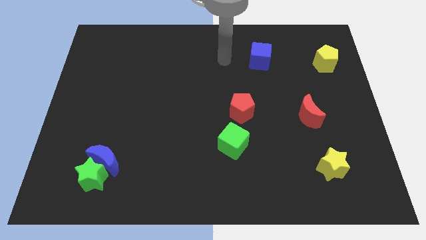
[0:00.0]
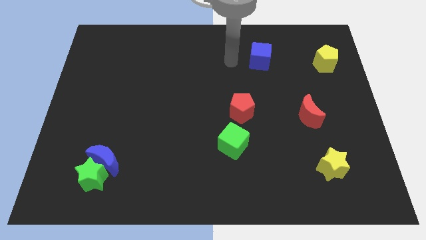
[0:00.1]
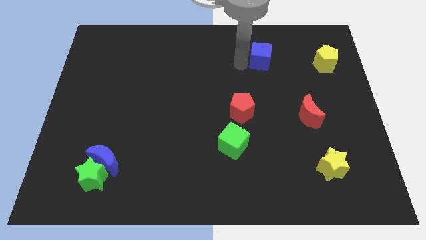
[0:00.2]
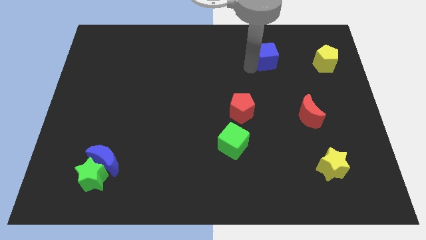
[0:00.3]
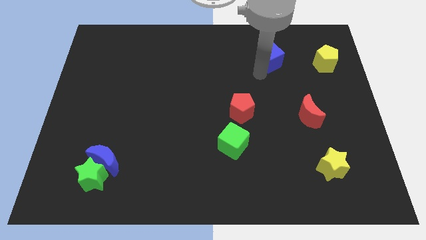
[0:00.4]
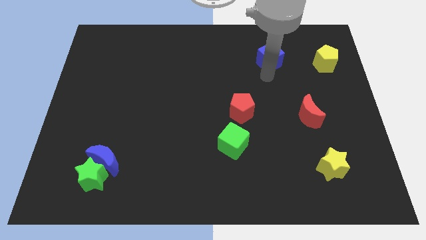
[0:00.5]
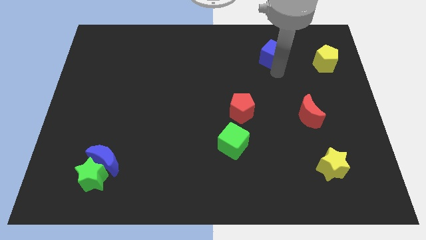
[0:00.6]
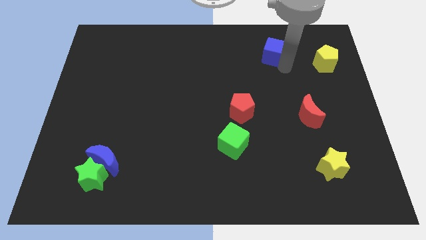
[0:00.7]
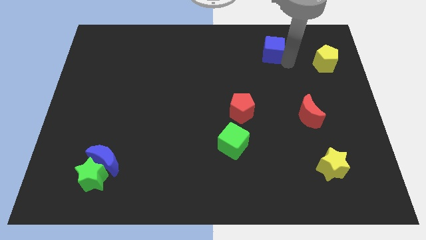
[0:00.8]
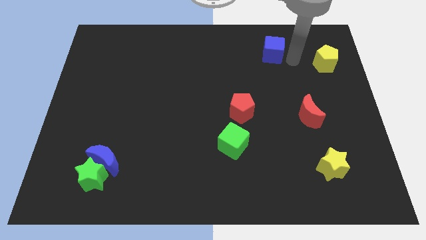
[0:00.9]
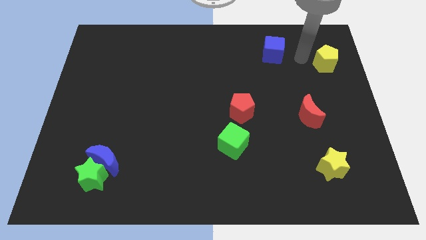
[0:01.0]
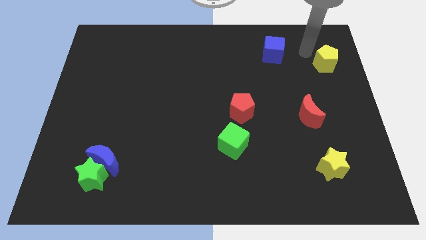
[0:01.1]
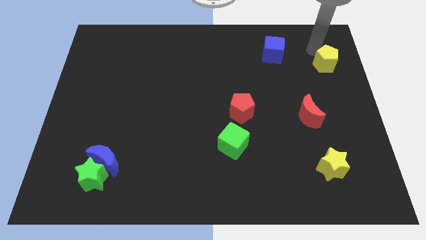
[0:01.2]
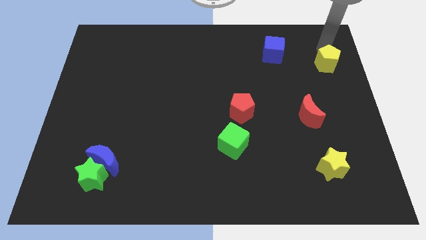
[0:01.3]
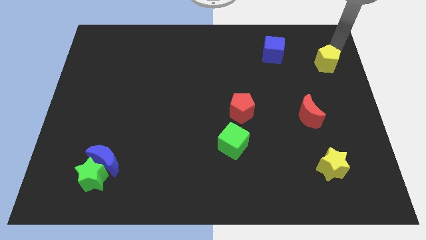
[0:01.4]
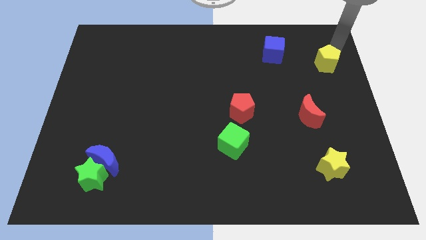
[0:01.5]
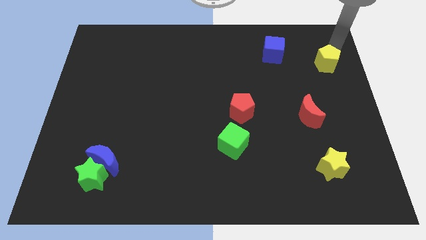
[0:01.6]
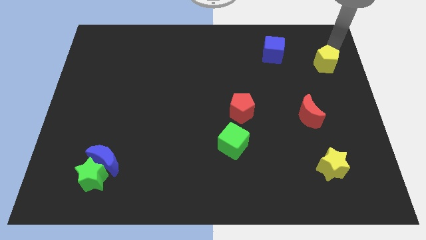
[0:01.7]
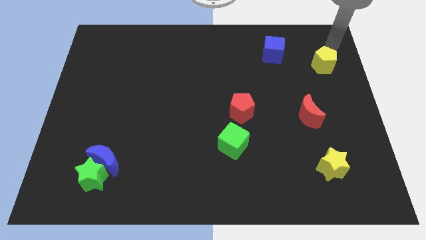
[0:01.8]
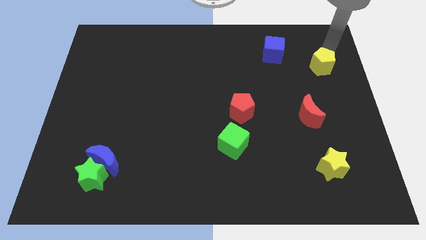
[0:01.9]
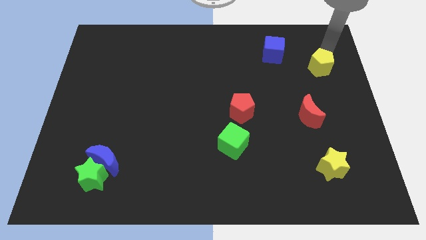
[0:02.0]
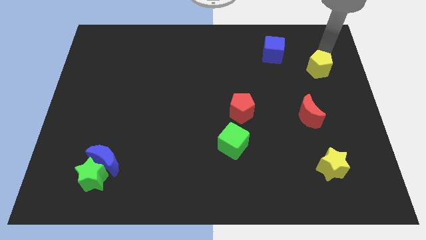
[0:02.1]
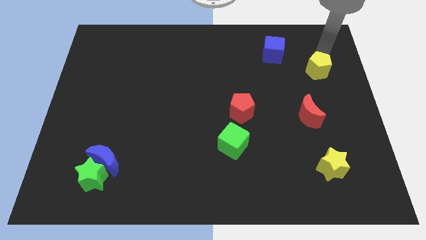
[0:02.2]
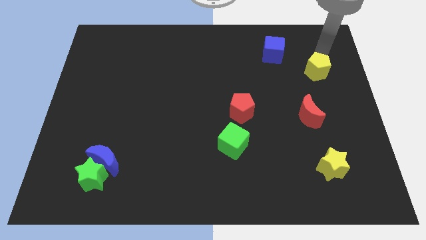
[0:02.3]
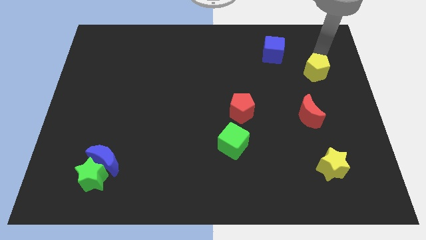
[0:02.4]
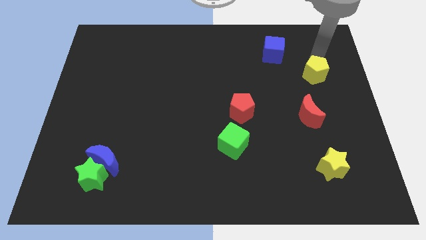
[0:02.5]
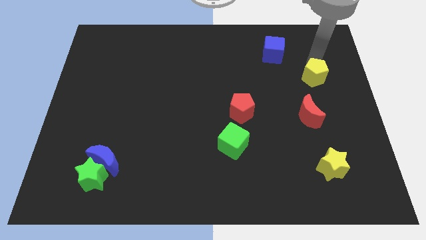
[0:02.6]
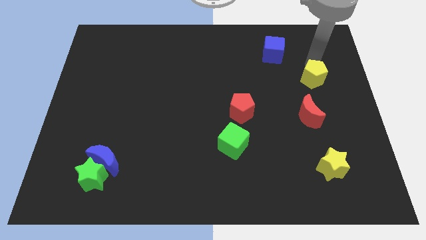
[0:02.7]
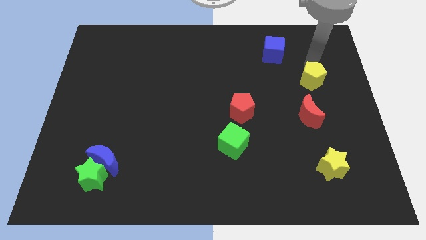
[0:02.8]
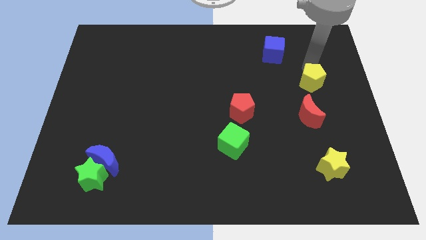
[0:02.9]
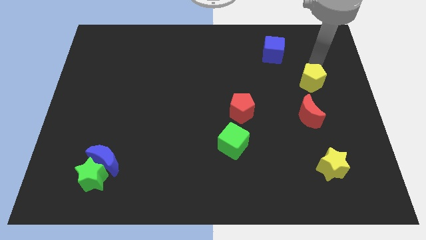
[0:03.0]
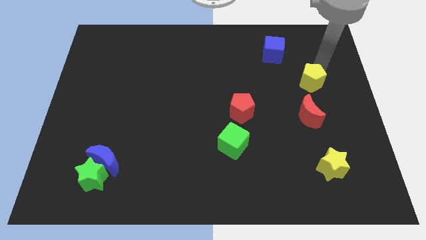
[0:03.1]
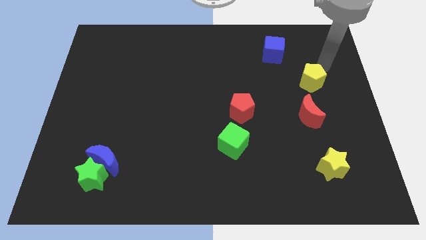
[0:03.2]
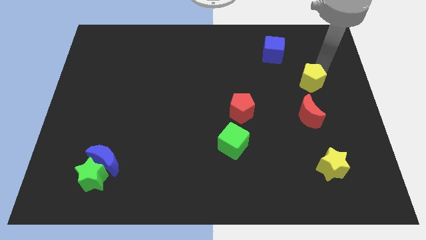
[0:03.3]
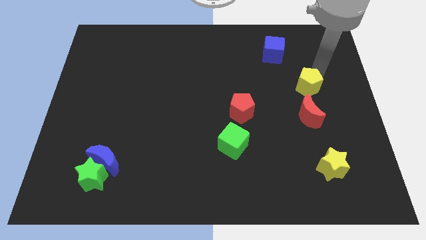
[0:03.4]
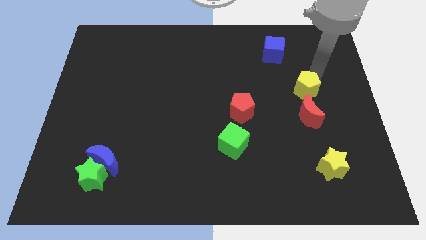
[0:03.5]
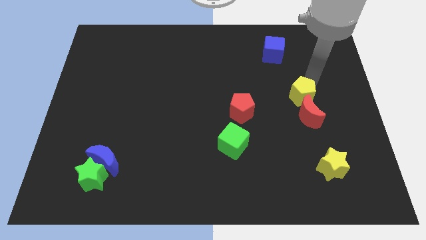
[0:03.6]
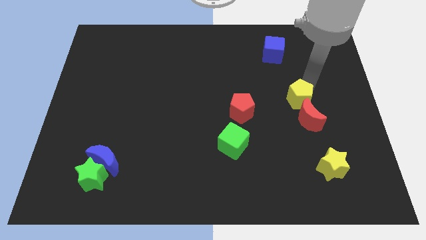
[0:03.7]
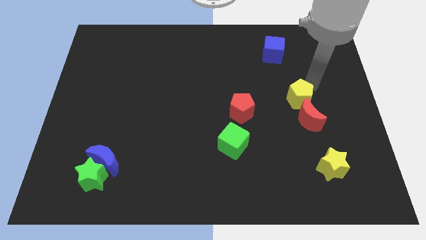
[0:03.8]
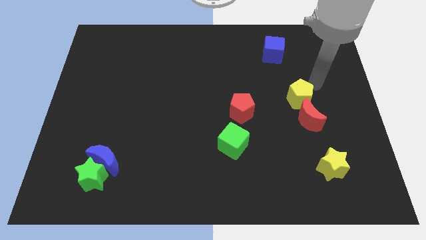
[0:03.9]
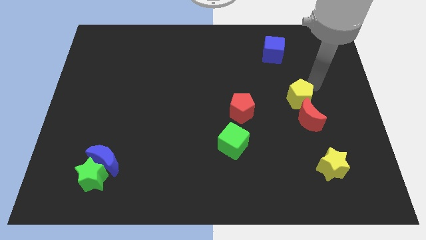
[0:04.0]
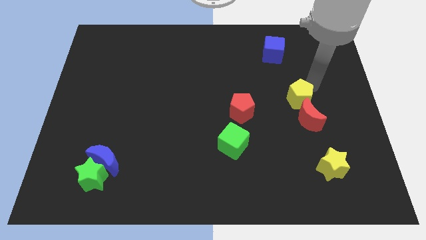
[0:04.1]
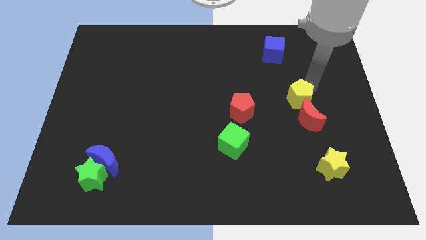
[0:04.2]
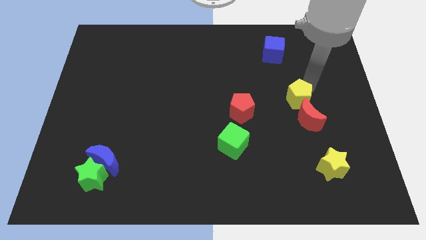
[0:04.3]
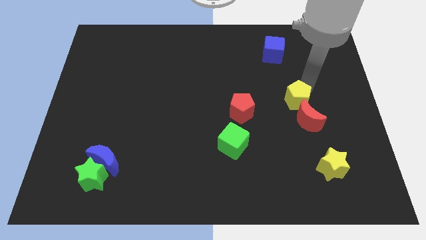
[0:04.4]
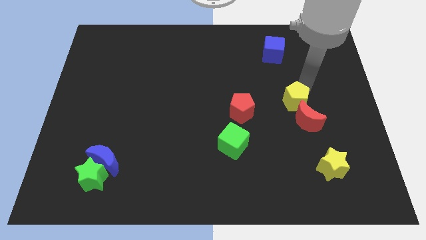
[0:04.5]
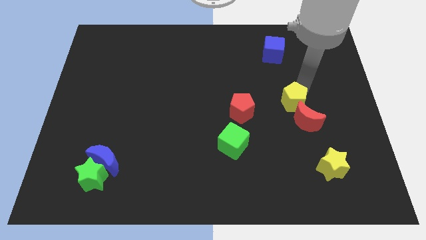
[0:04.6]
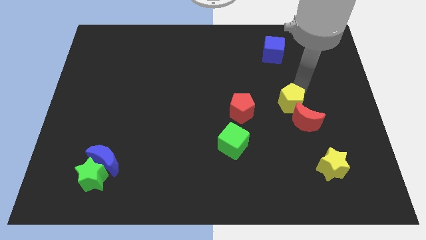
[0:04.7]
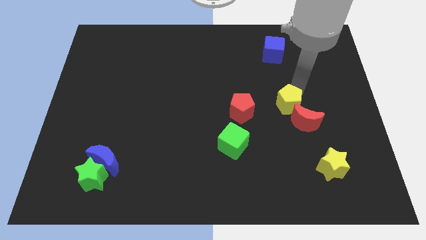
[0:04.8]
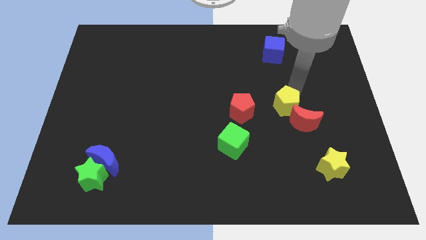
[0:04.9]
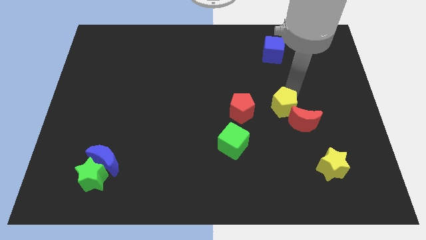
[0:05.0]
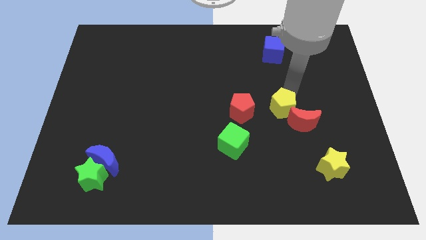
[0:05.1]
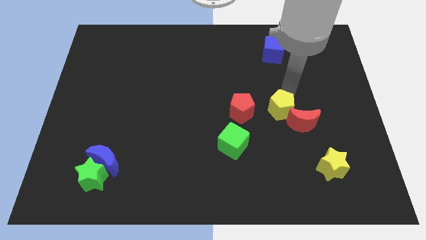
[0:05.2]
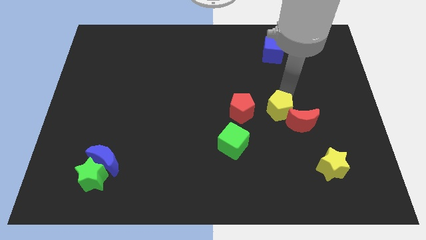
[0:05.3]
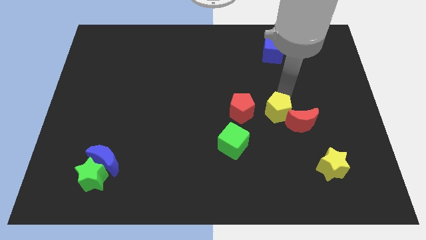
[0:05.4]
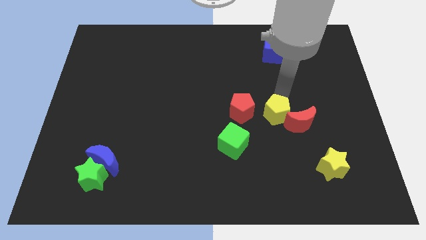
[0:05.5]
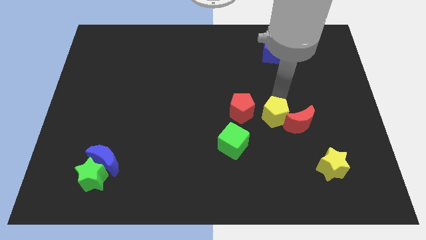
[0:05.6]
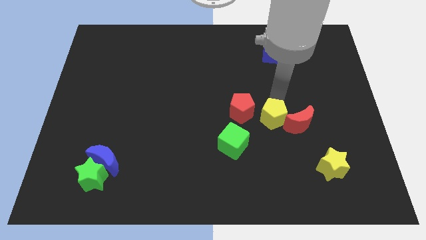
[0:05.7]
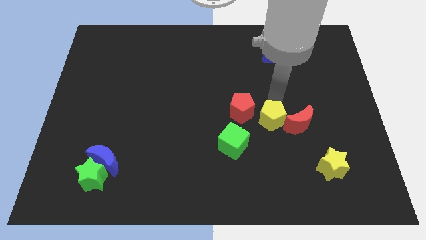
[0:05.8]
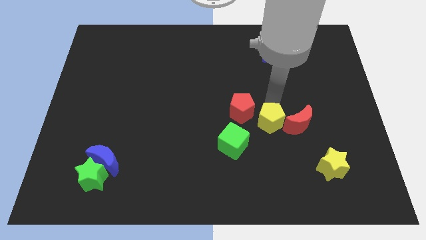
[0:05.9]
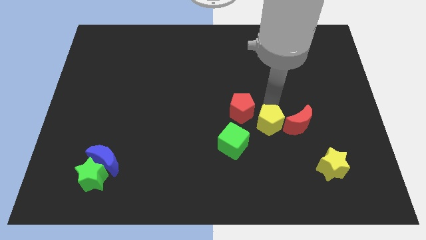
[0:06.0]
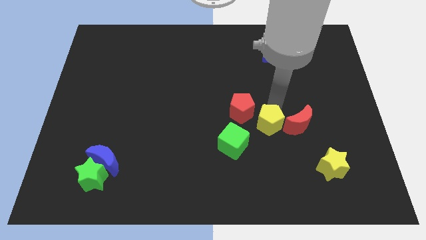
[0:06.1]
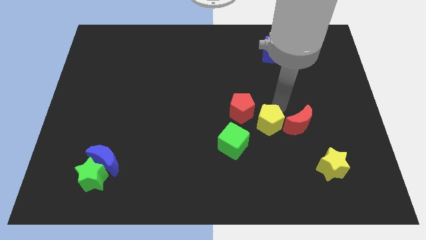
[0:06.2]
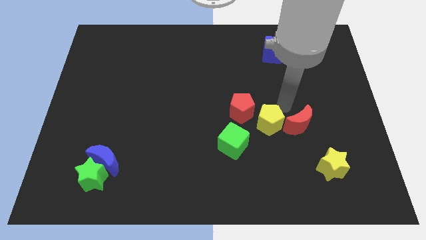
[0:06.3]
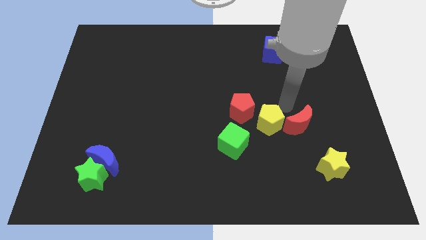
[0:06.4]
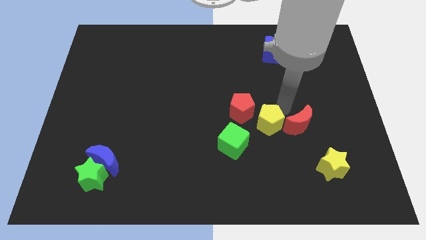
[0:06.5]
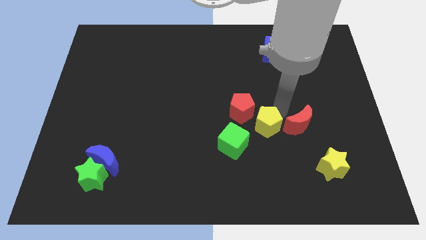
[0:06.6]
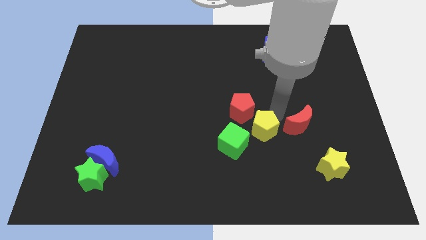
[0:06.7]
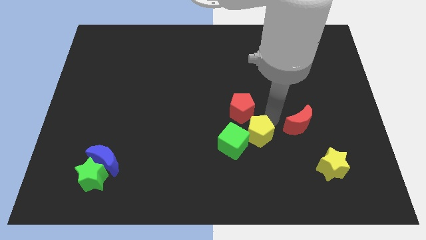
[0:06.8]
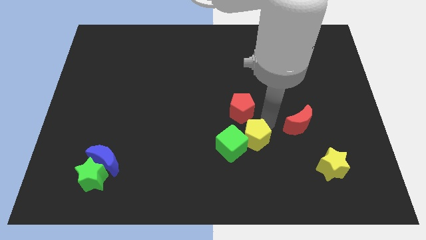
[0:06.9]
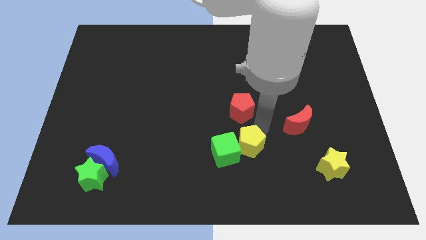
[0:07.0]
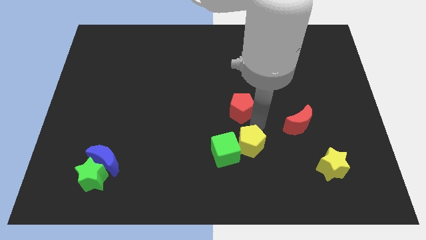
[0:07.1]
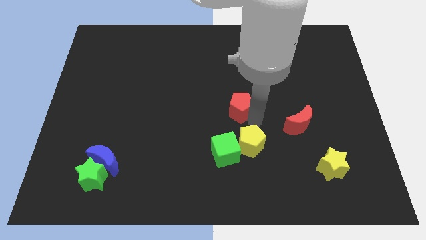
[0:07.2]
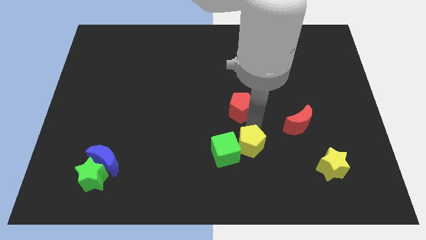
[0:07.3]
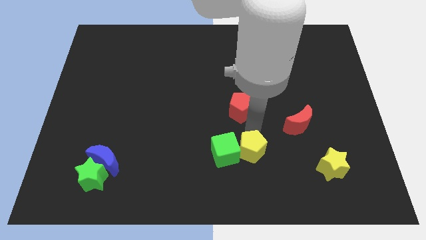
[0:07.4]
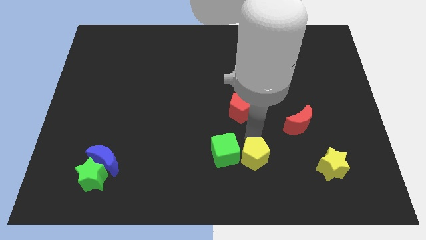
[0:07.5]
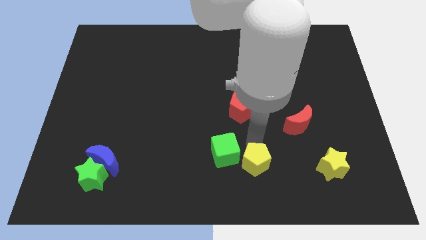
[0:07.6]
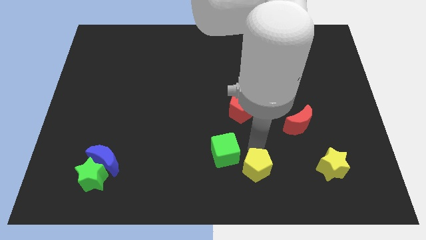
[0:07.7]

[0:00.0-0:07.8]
put the yellow pentagon to the bottom
